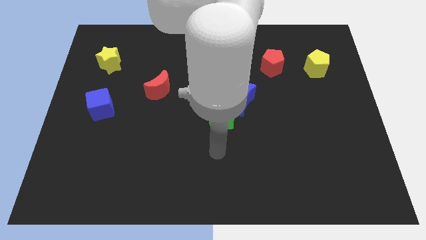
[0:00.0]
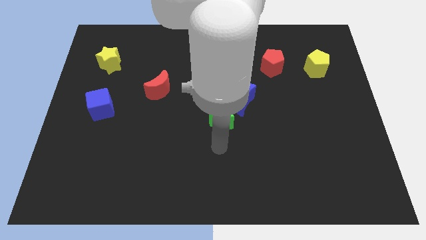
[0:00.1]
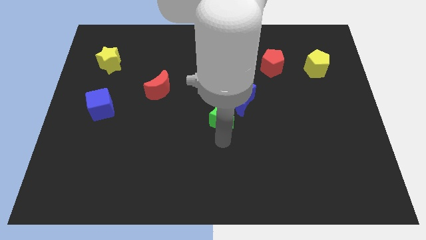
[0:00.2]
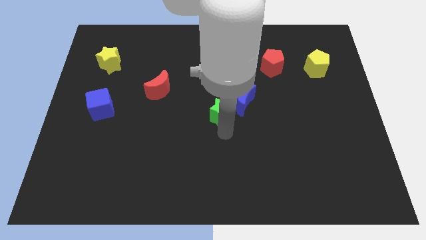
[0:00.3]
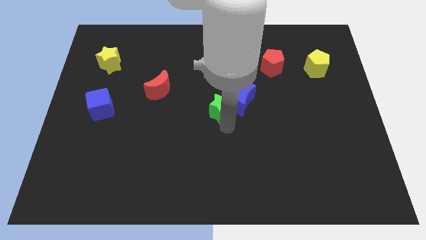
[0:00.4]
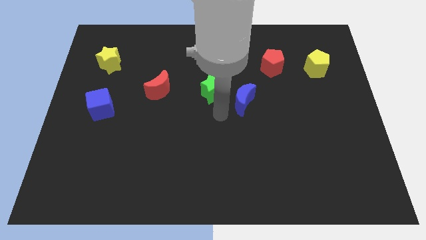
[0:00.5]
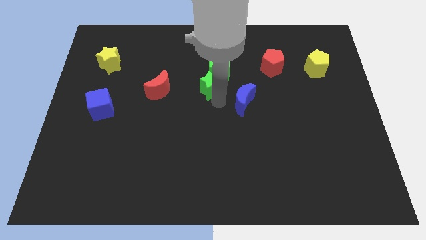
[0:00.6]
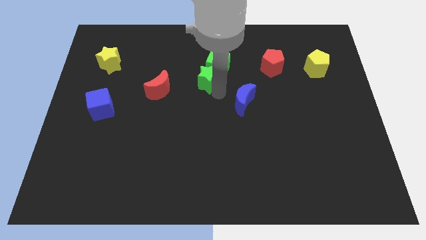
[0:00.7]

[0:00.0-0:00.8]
separate the blue moon from the green star

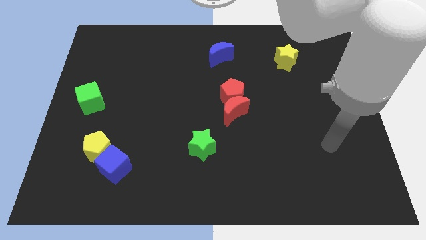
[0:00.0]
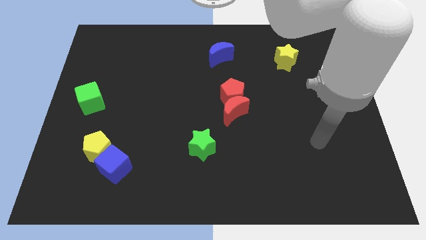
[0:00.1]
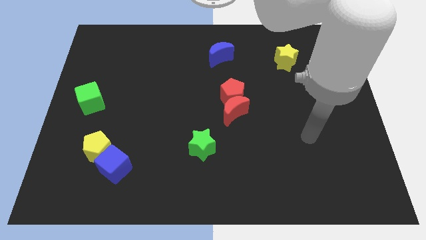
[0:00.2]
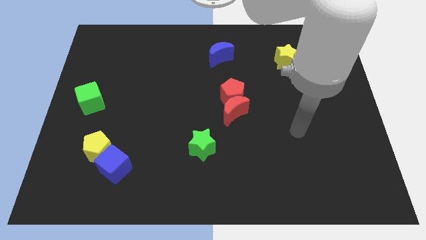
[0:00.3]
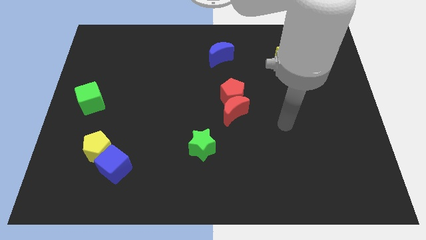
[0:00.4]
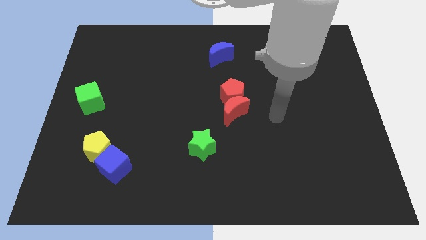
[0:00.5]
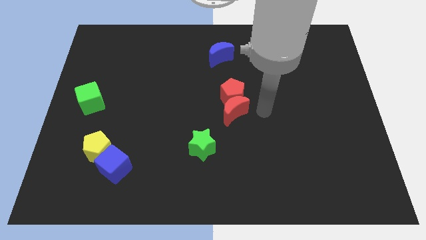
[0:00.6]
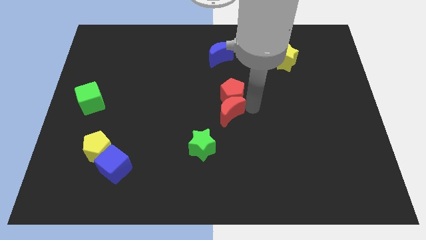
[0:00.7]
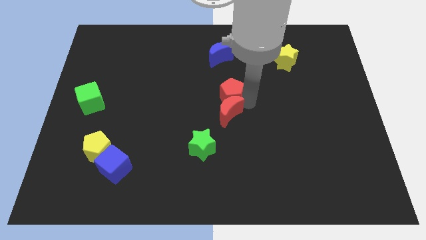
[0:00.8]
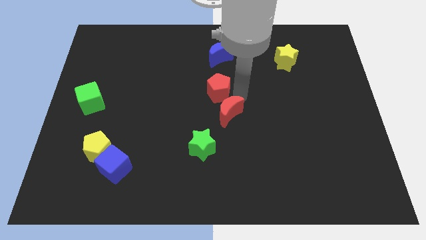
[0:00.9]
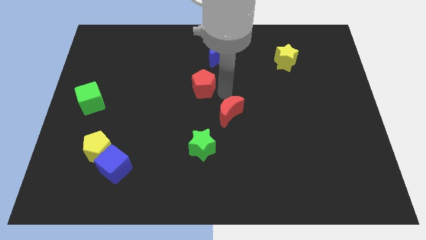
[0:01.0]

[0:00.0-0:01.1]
separate the red moon from the red pentagon

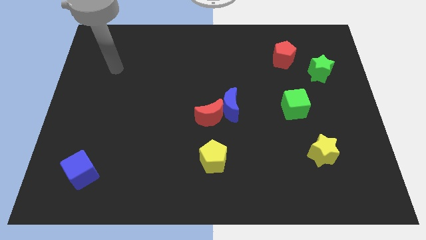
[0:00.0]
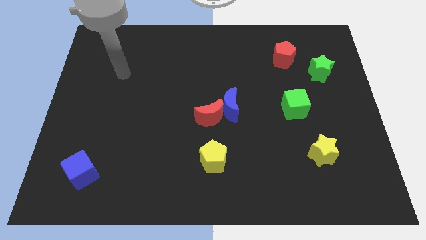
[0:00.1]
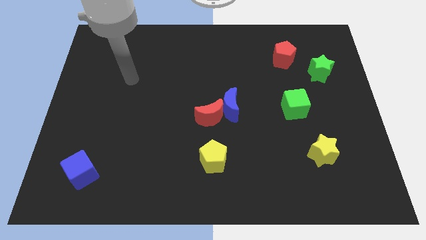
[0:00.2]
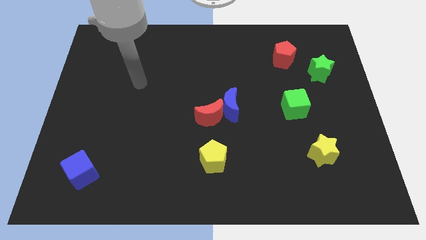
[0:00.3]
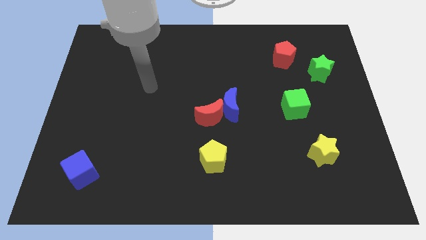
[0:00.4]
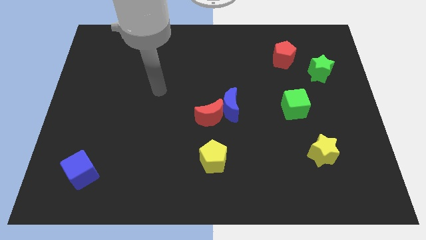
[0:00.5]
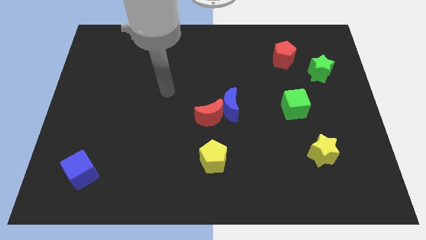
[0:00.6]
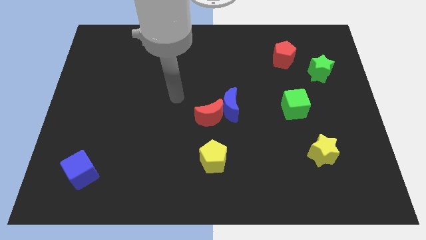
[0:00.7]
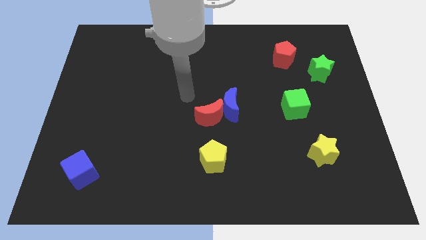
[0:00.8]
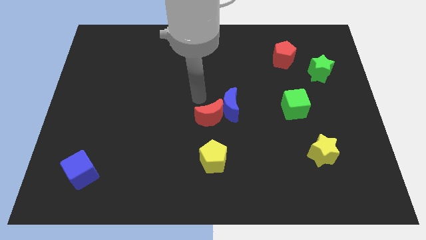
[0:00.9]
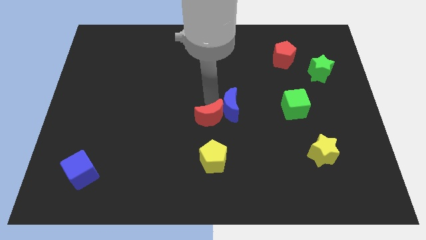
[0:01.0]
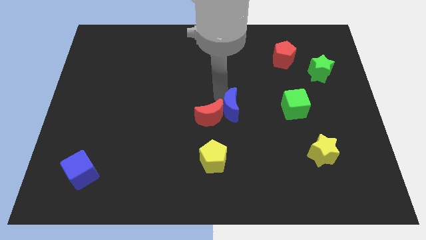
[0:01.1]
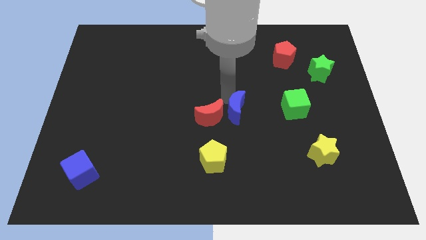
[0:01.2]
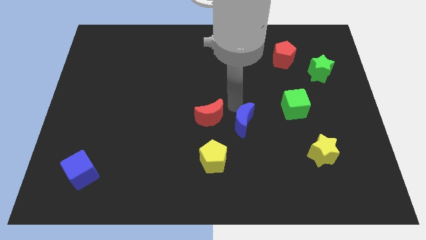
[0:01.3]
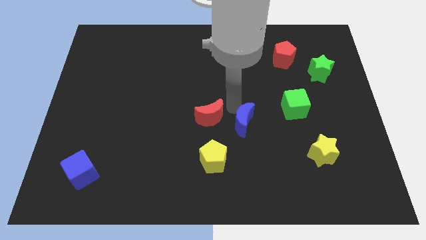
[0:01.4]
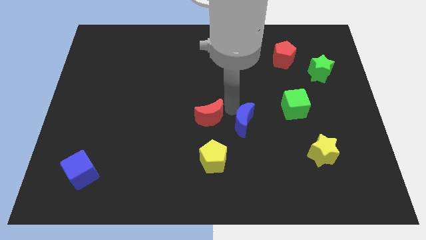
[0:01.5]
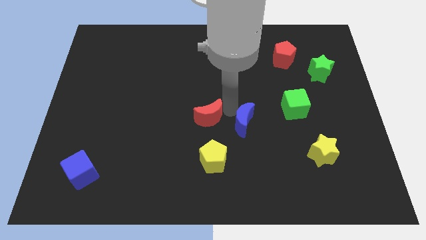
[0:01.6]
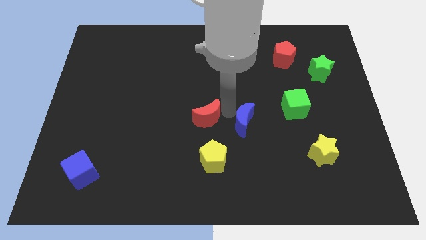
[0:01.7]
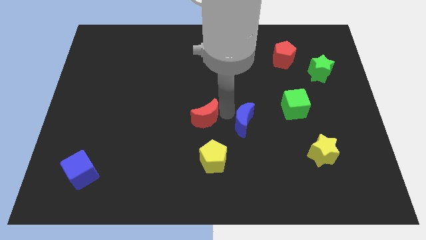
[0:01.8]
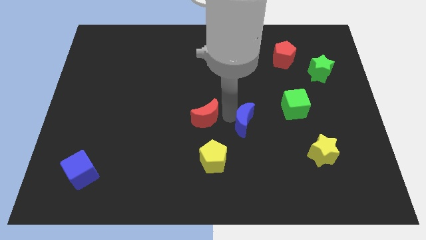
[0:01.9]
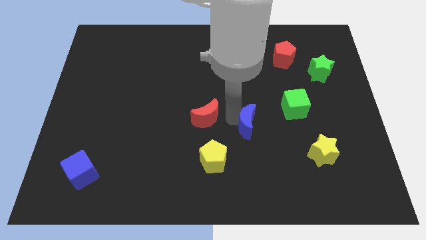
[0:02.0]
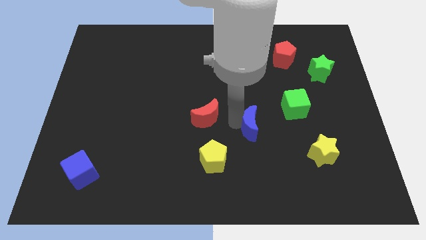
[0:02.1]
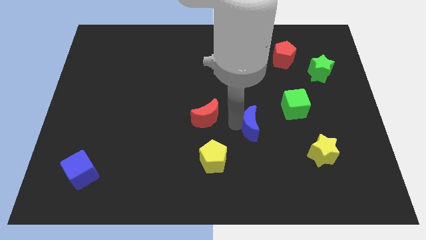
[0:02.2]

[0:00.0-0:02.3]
move the red moon away from the blue moon

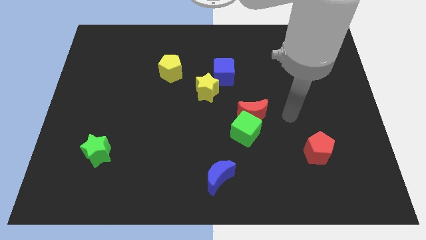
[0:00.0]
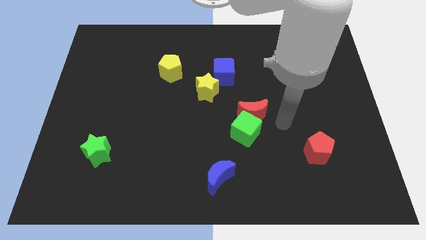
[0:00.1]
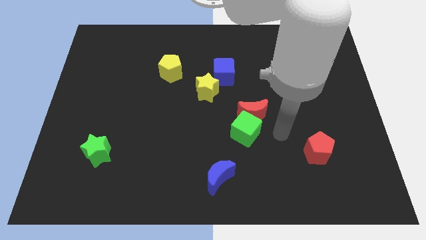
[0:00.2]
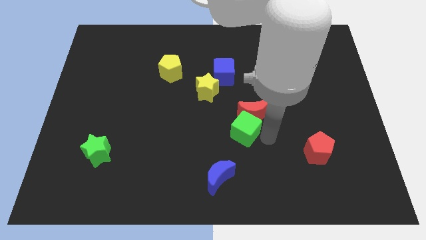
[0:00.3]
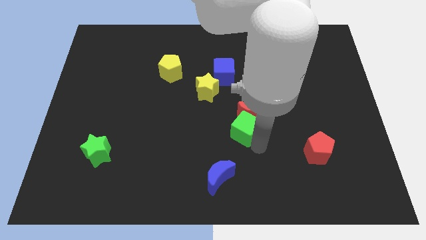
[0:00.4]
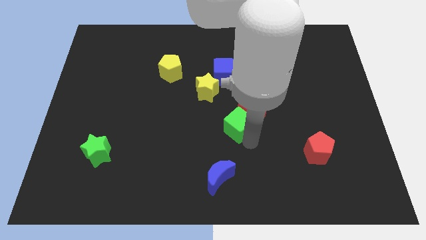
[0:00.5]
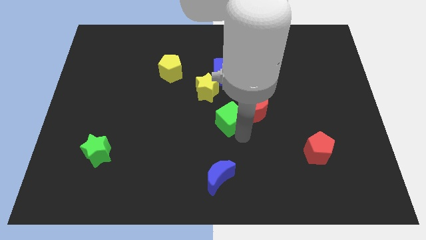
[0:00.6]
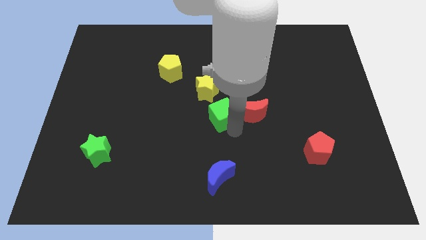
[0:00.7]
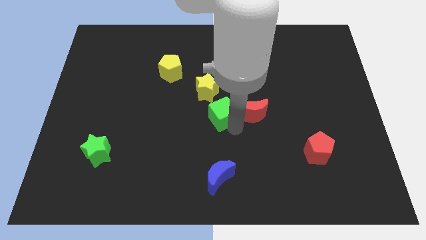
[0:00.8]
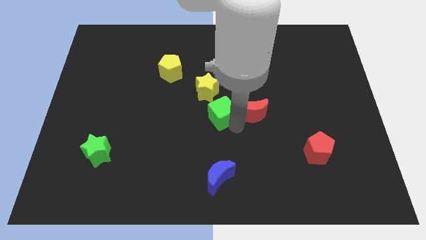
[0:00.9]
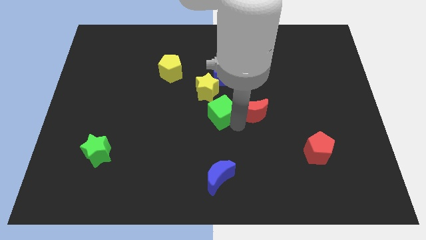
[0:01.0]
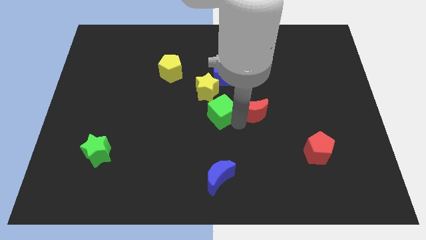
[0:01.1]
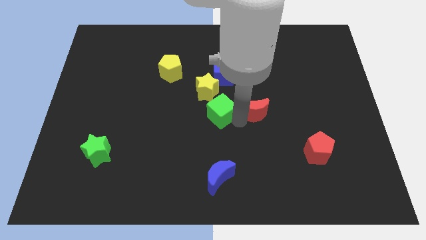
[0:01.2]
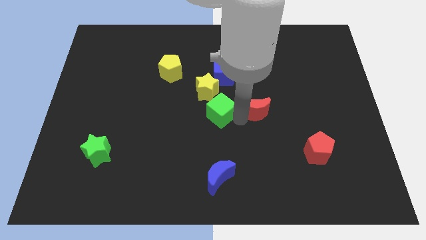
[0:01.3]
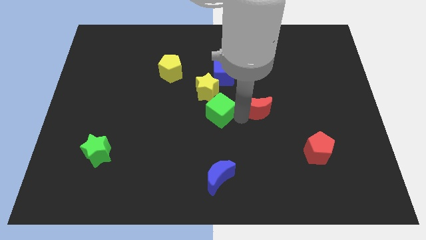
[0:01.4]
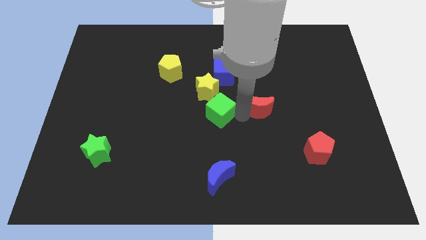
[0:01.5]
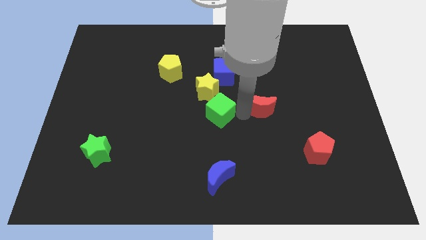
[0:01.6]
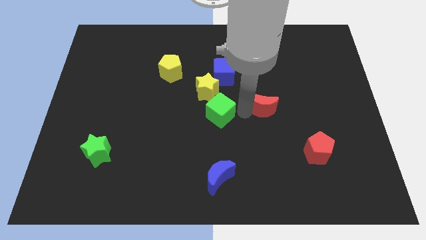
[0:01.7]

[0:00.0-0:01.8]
separate the red moon from the green cube

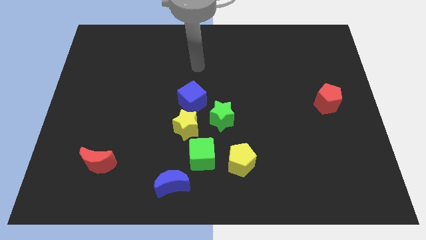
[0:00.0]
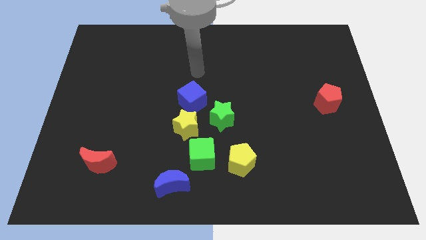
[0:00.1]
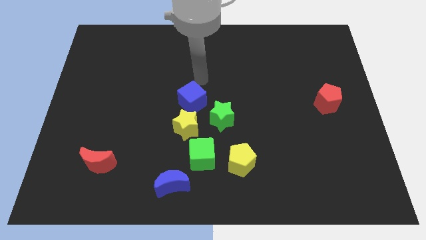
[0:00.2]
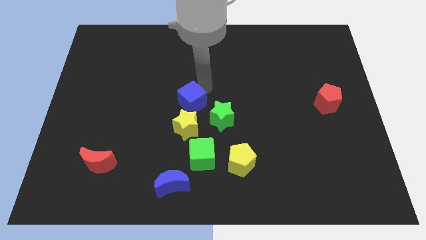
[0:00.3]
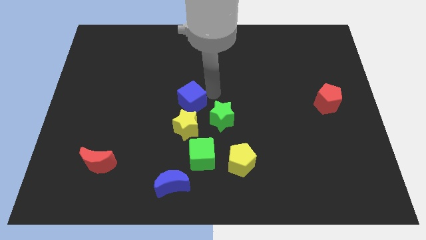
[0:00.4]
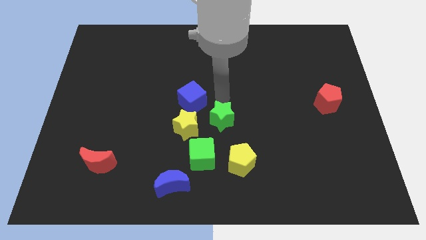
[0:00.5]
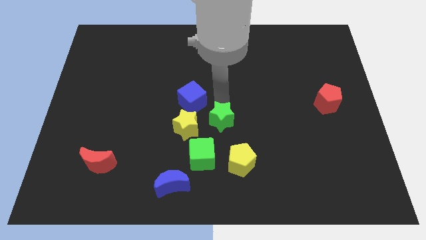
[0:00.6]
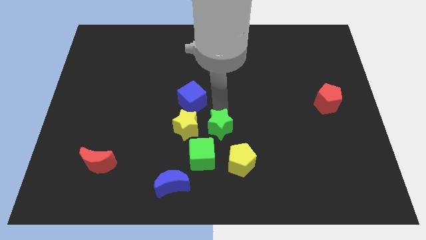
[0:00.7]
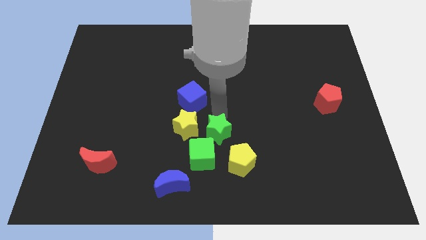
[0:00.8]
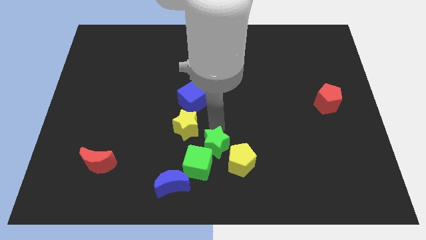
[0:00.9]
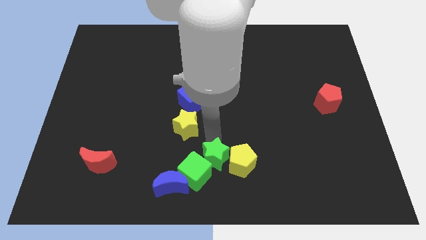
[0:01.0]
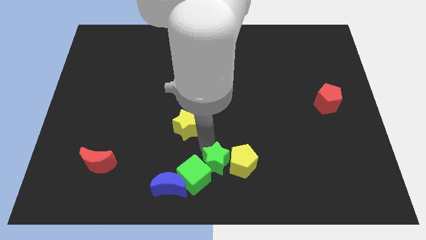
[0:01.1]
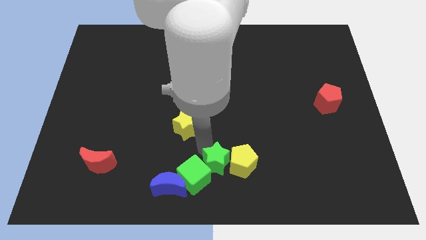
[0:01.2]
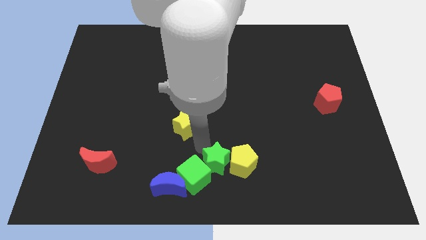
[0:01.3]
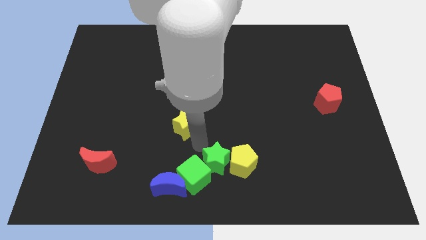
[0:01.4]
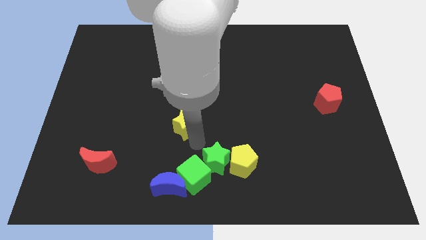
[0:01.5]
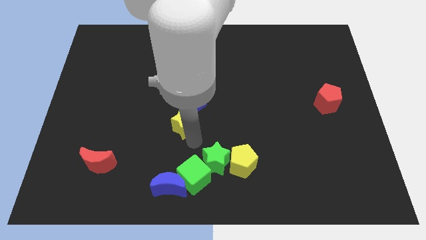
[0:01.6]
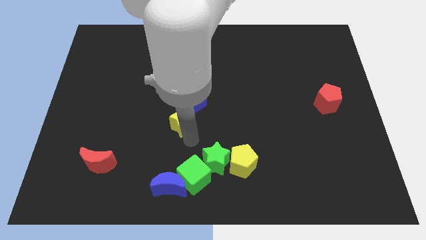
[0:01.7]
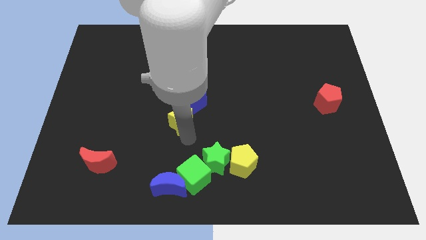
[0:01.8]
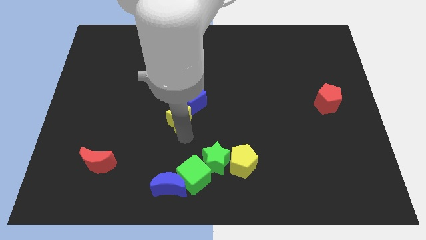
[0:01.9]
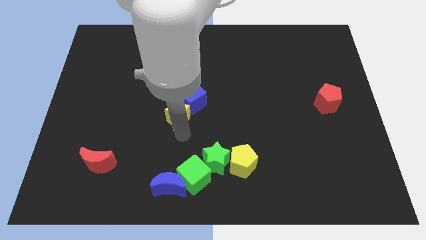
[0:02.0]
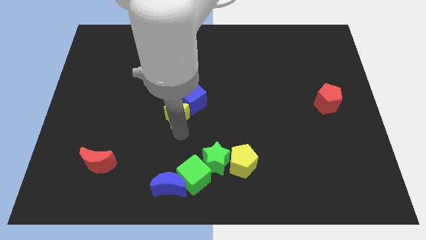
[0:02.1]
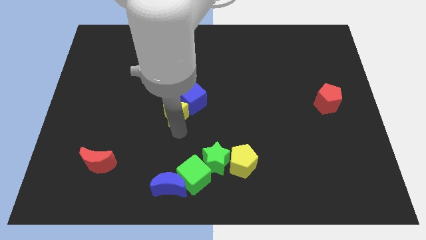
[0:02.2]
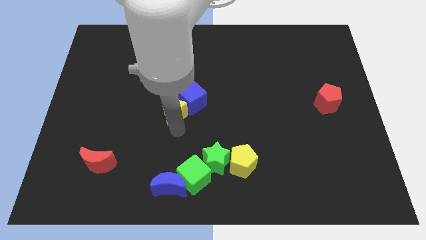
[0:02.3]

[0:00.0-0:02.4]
pull the yellow star apart from the group of blocks

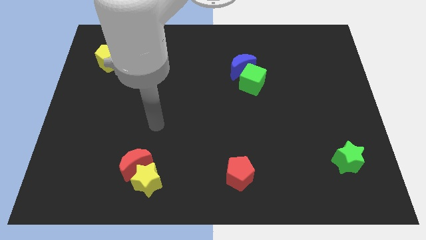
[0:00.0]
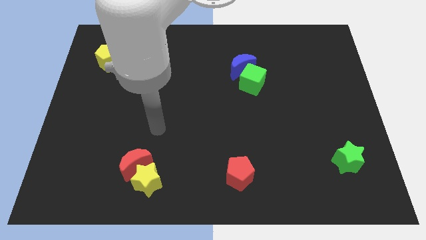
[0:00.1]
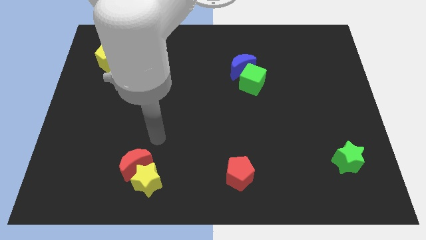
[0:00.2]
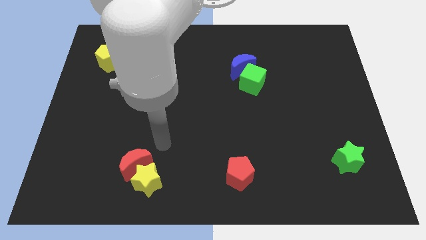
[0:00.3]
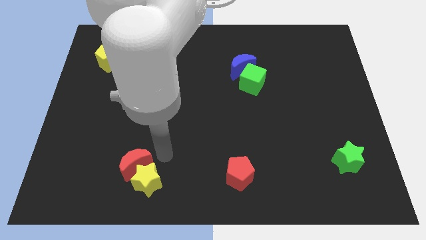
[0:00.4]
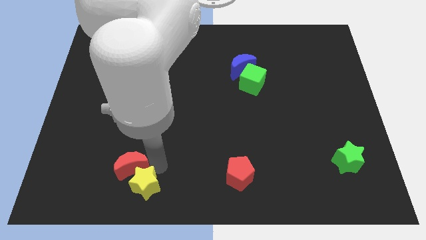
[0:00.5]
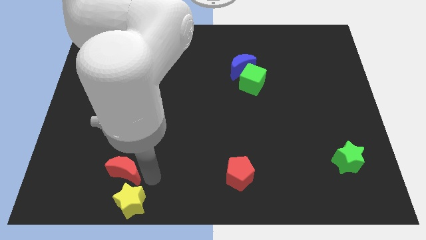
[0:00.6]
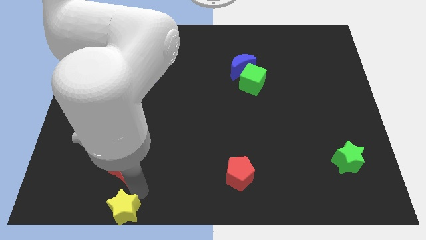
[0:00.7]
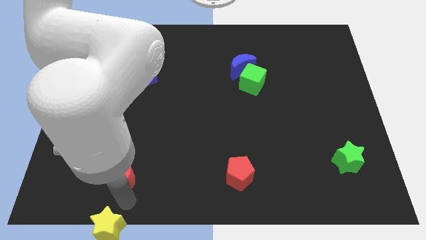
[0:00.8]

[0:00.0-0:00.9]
move the red moon away from the yellow star
